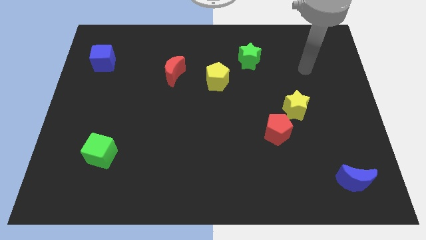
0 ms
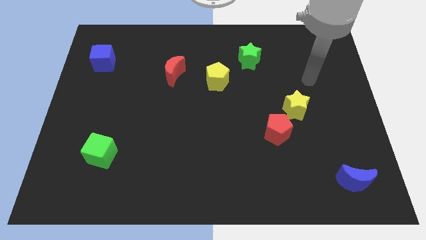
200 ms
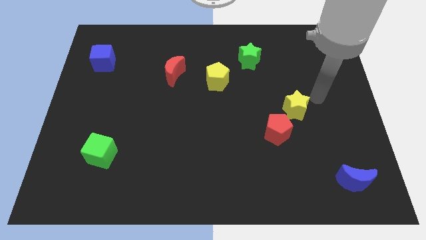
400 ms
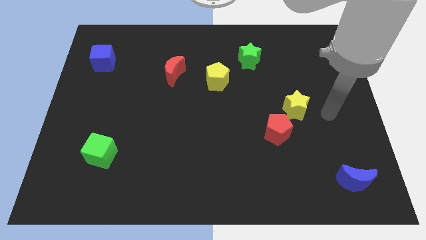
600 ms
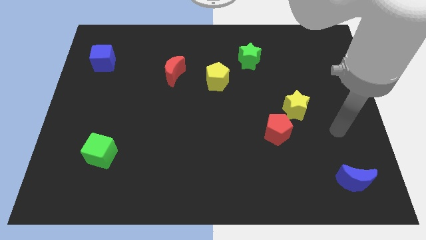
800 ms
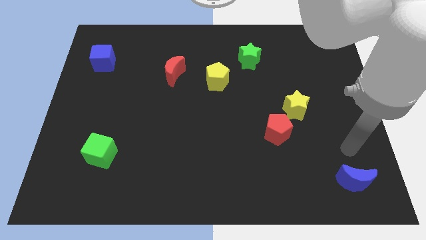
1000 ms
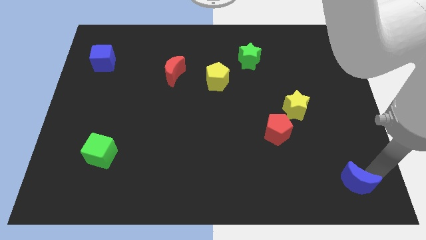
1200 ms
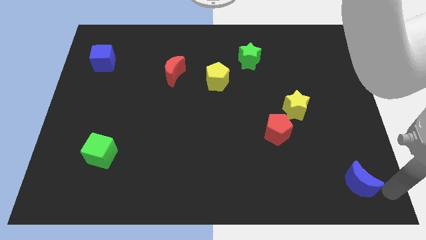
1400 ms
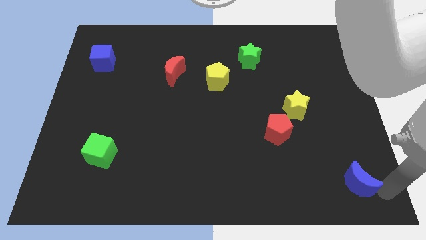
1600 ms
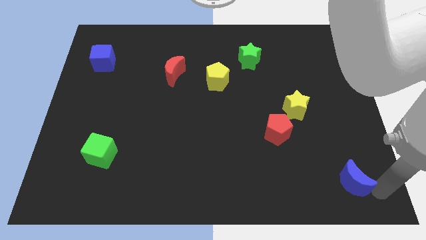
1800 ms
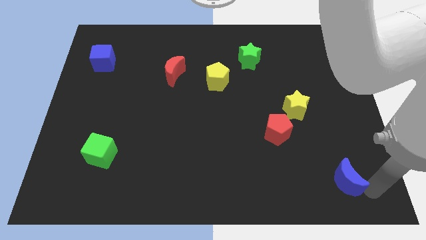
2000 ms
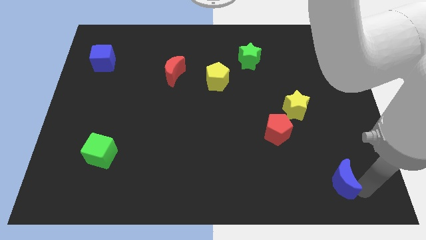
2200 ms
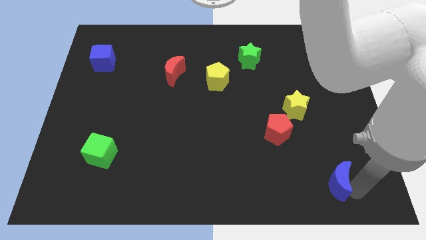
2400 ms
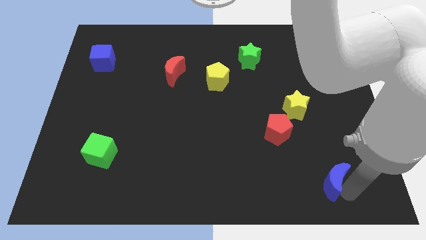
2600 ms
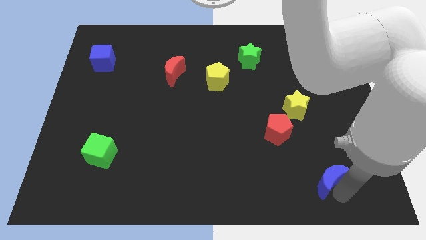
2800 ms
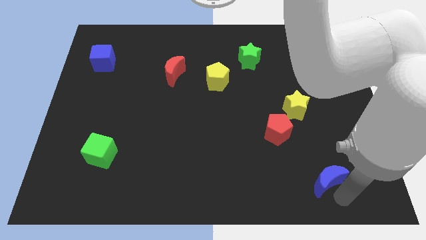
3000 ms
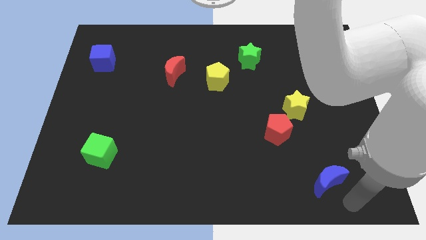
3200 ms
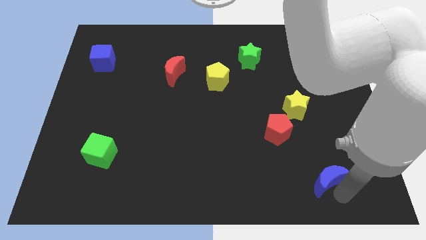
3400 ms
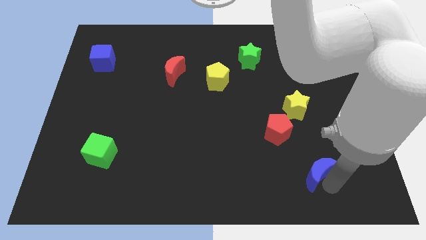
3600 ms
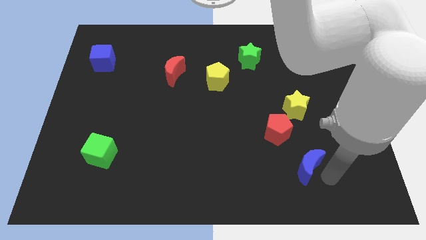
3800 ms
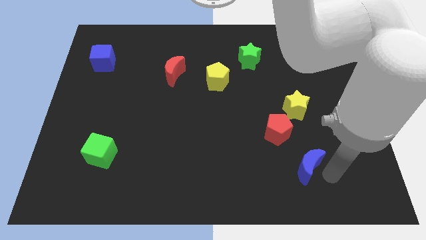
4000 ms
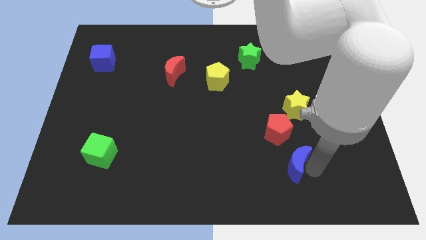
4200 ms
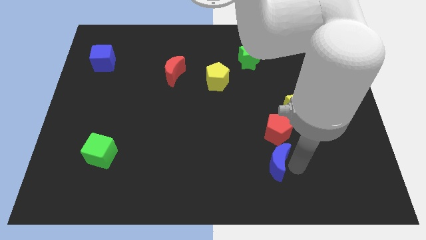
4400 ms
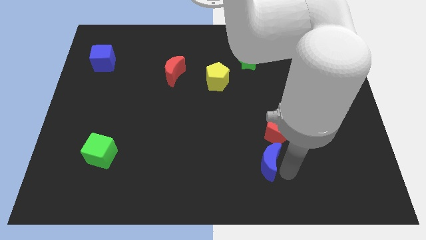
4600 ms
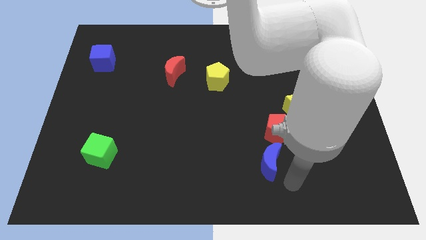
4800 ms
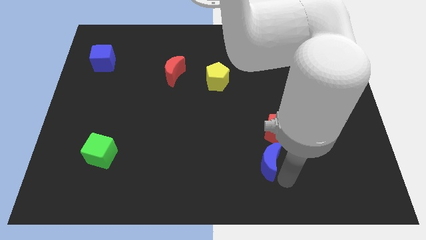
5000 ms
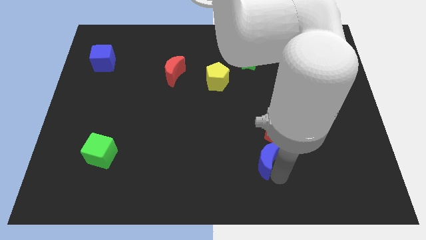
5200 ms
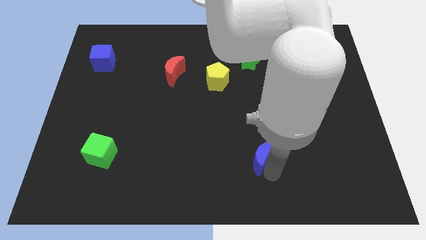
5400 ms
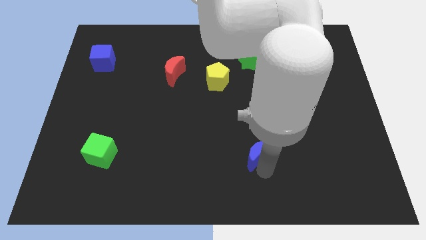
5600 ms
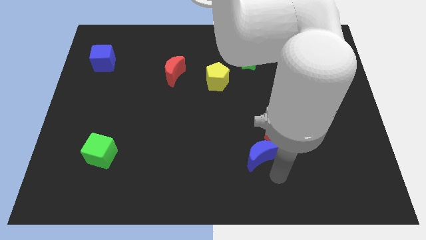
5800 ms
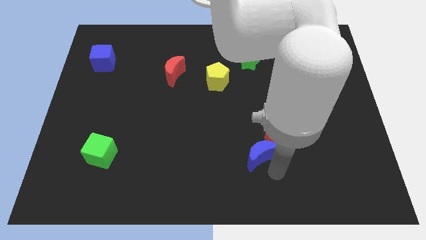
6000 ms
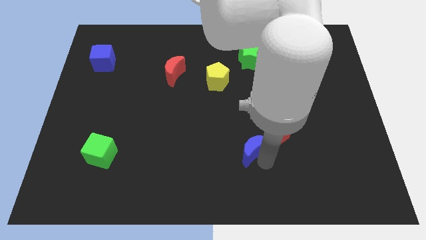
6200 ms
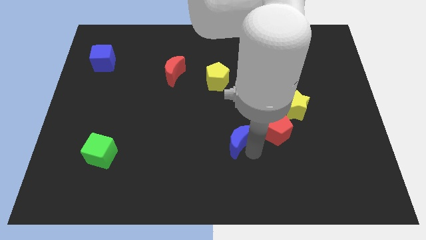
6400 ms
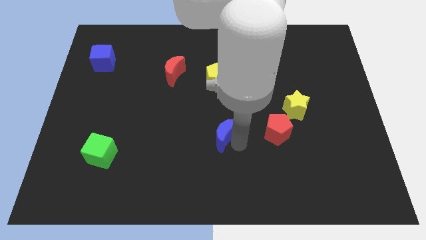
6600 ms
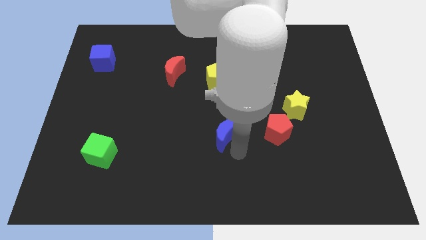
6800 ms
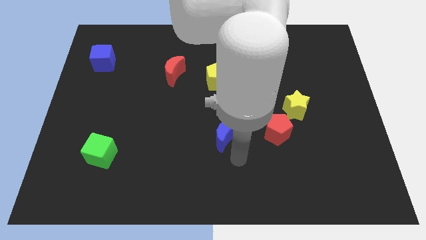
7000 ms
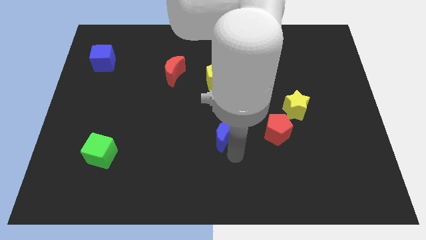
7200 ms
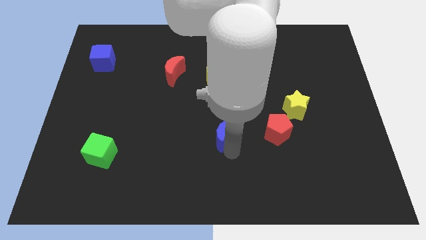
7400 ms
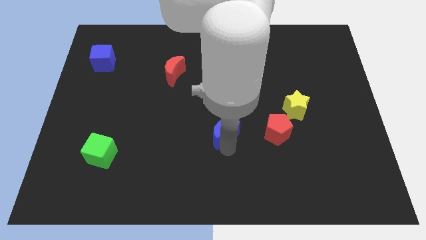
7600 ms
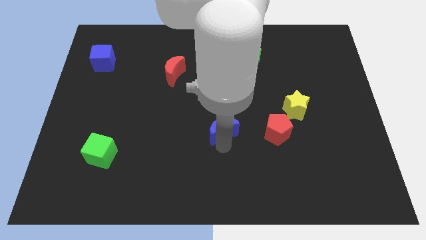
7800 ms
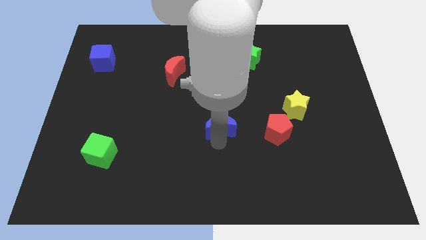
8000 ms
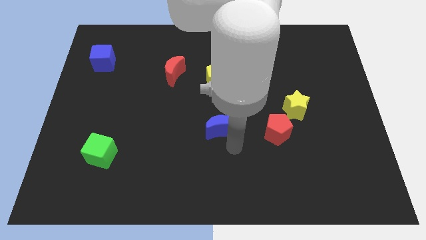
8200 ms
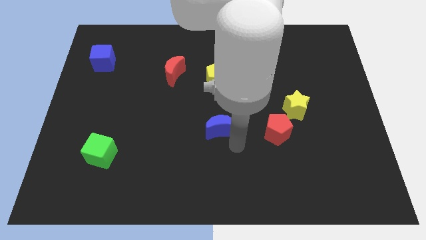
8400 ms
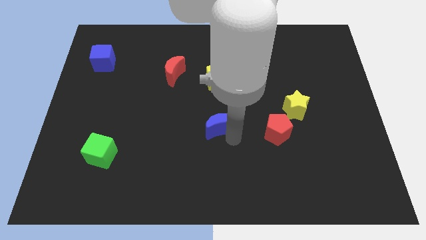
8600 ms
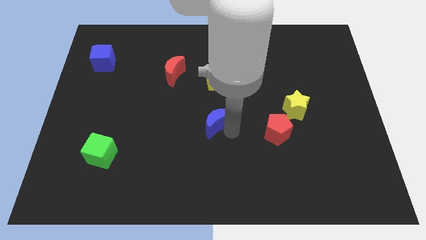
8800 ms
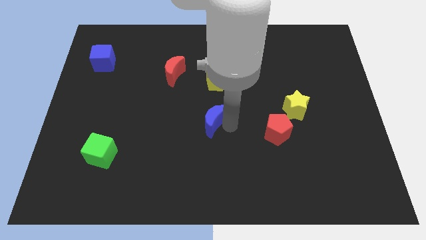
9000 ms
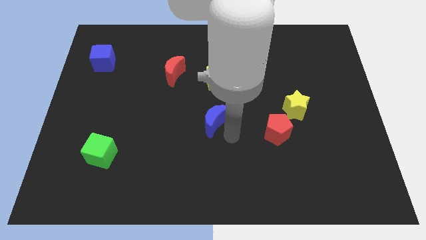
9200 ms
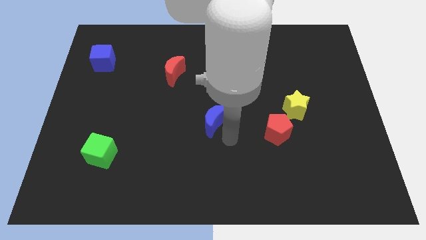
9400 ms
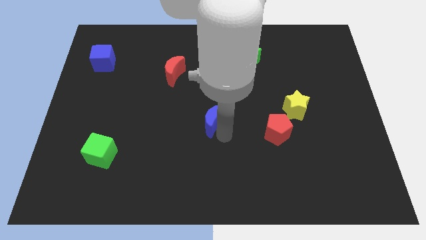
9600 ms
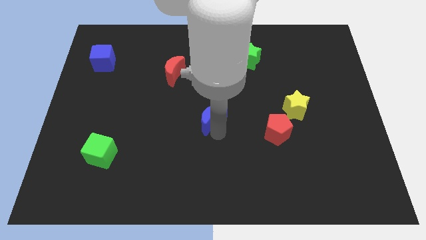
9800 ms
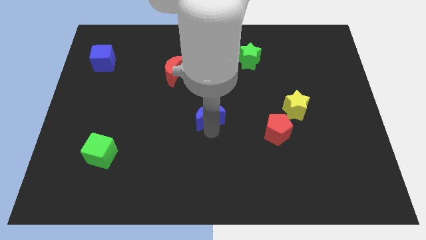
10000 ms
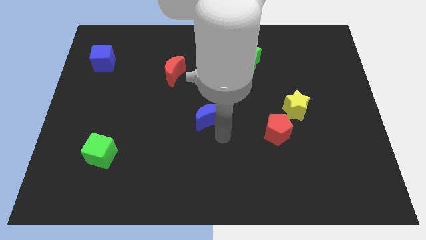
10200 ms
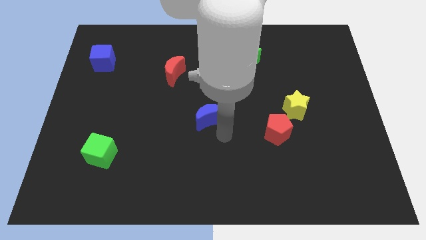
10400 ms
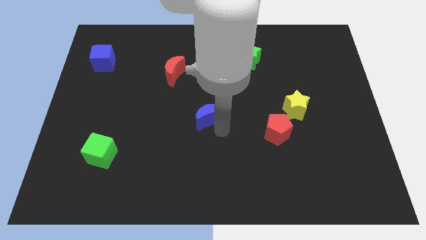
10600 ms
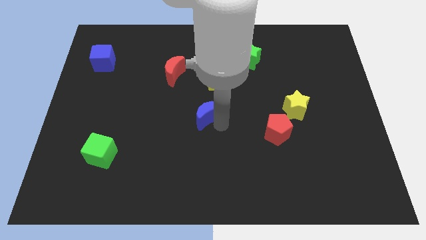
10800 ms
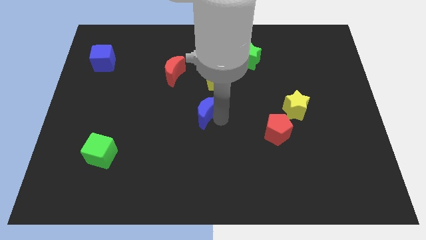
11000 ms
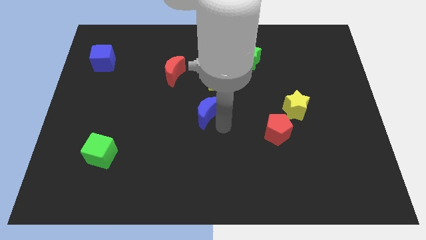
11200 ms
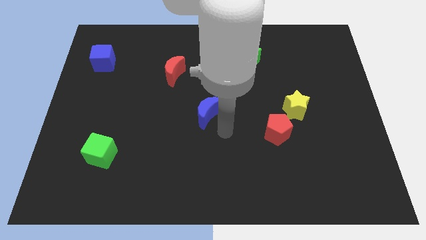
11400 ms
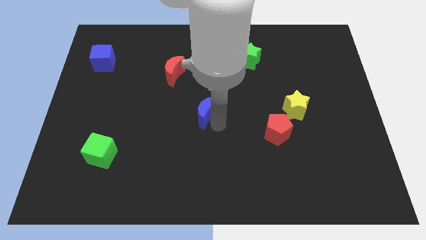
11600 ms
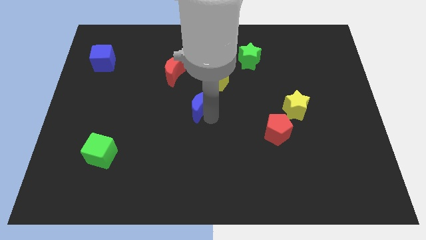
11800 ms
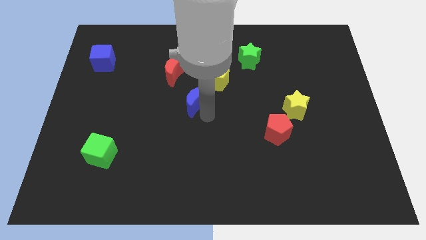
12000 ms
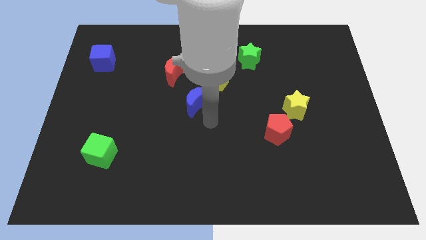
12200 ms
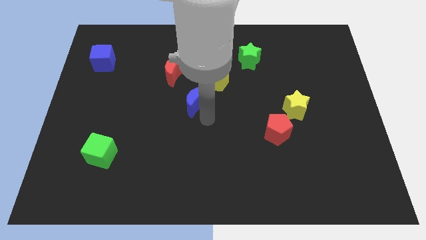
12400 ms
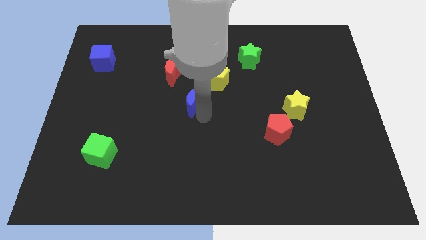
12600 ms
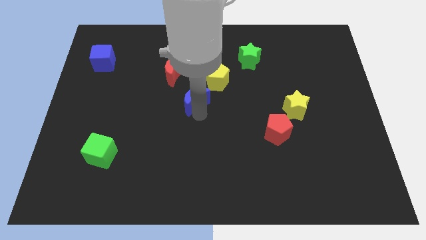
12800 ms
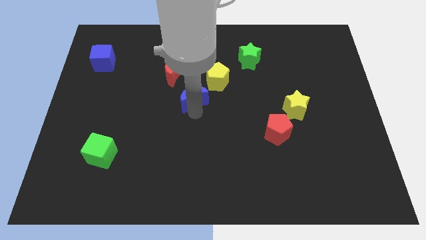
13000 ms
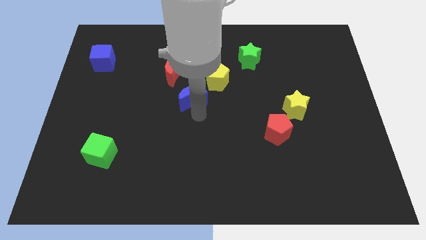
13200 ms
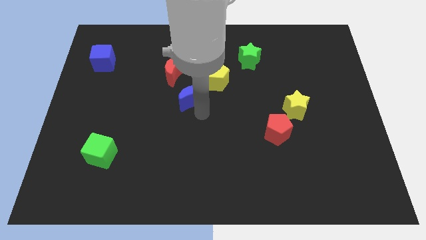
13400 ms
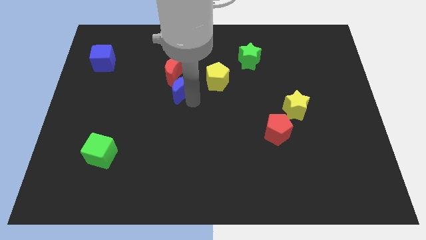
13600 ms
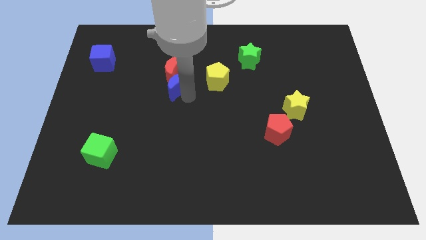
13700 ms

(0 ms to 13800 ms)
move the blue moon close to the red moon

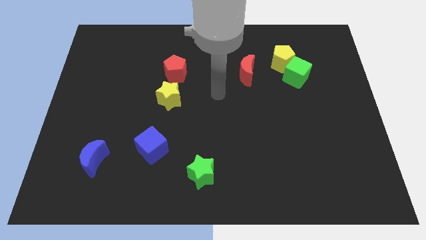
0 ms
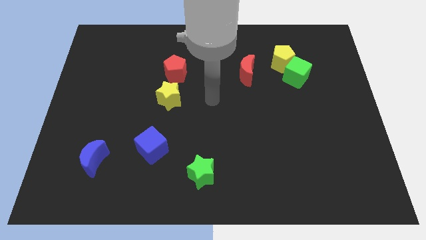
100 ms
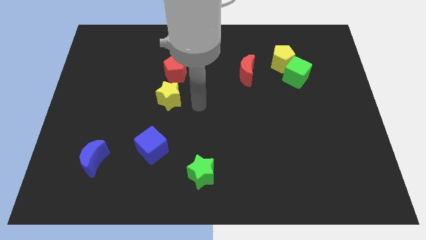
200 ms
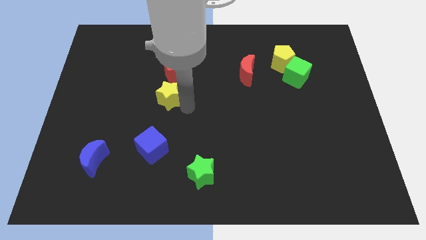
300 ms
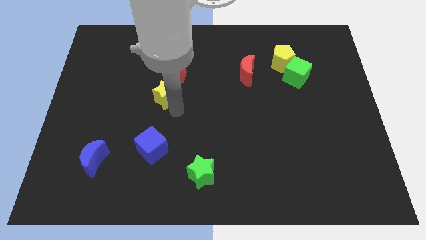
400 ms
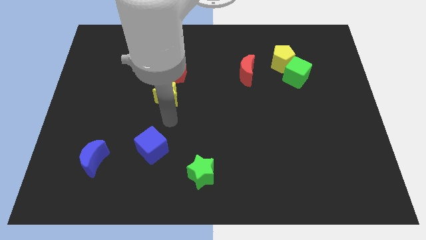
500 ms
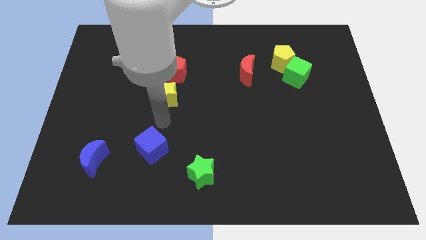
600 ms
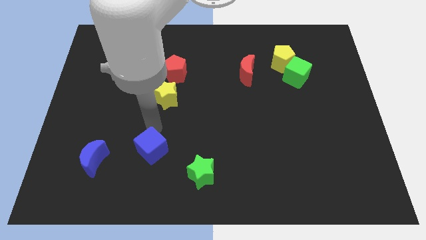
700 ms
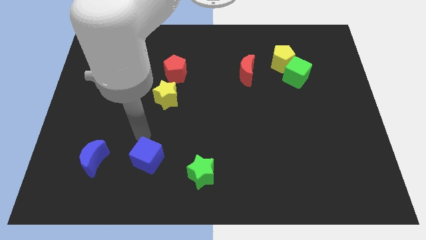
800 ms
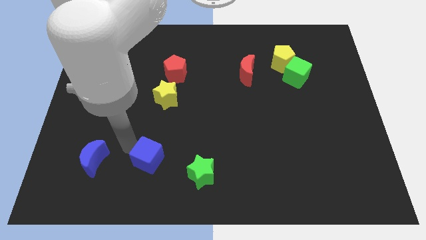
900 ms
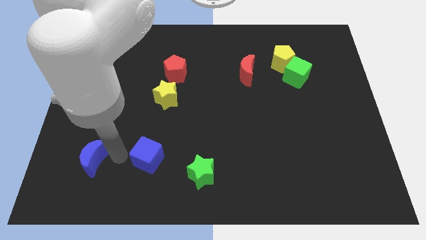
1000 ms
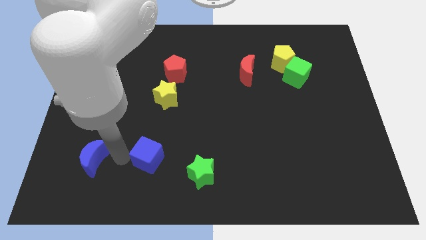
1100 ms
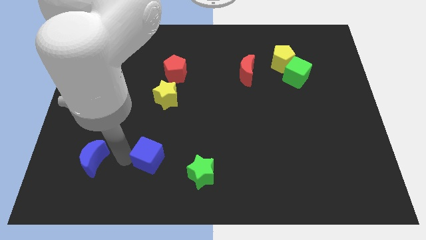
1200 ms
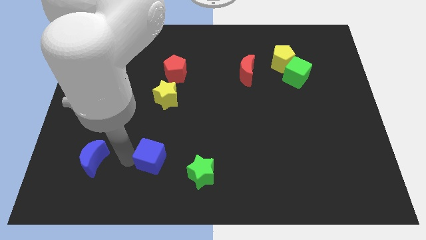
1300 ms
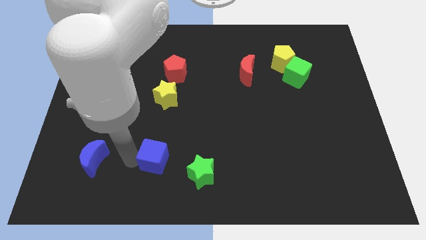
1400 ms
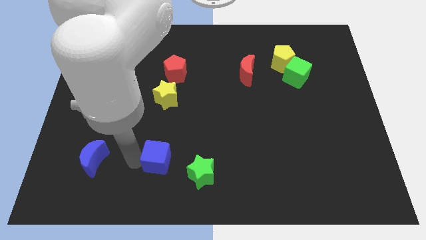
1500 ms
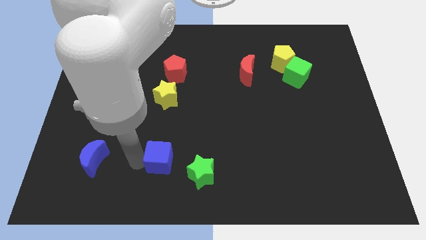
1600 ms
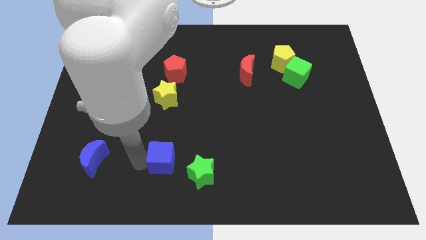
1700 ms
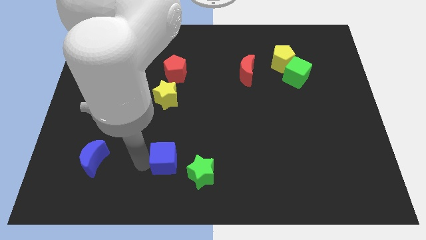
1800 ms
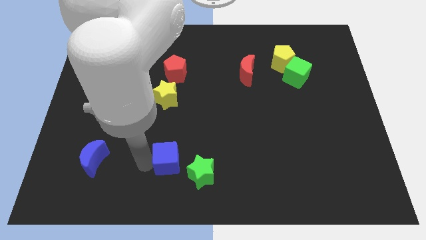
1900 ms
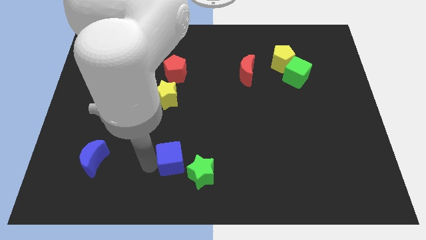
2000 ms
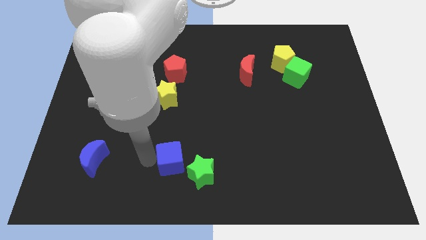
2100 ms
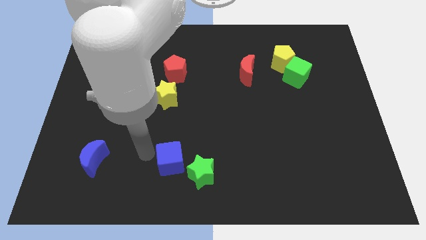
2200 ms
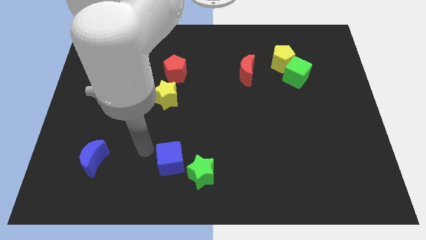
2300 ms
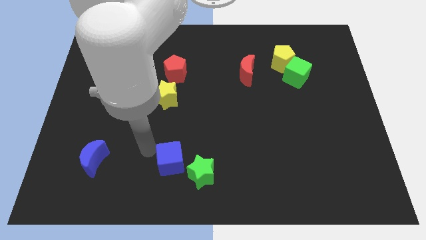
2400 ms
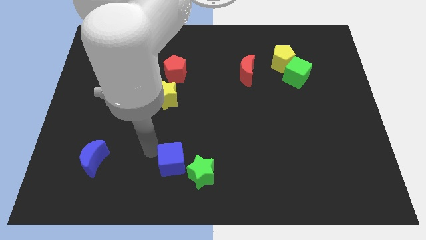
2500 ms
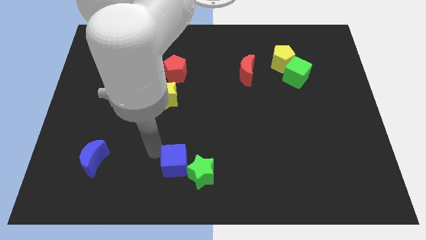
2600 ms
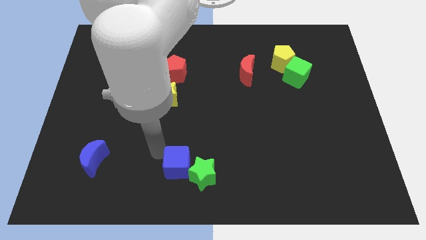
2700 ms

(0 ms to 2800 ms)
put the blue cube next to the green star
